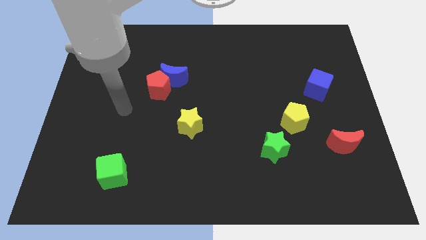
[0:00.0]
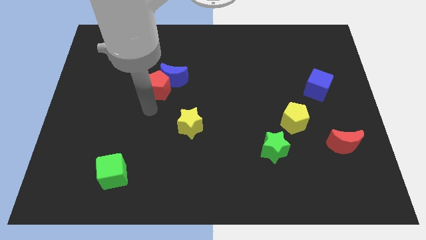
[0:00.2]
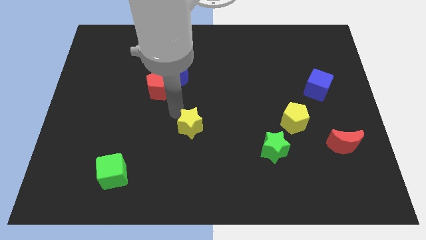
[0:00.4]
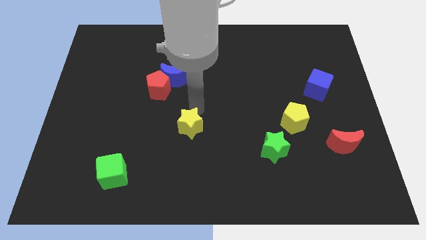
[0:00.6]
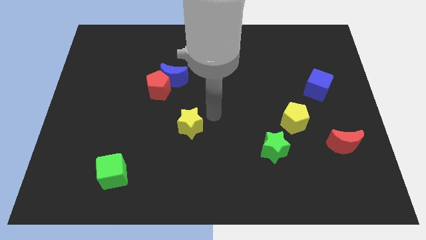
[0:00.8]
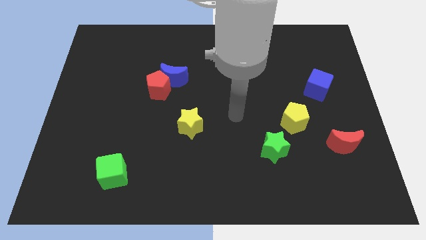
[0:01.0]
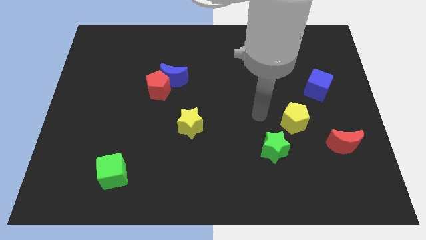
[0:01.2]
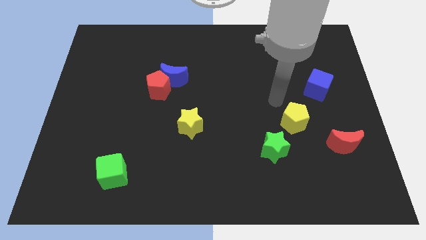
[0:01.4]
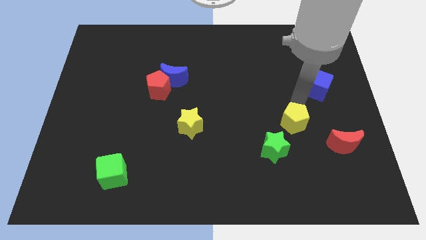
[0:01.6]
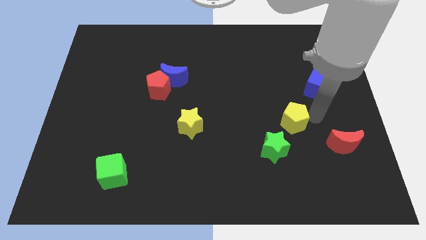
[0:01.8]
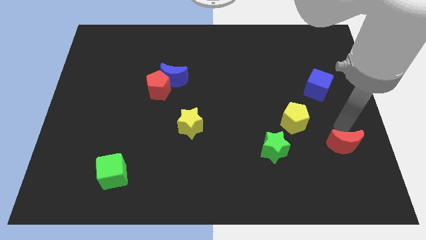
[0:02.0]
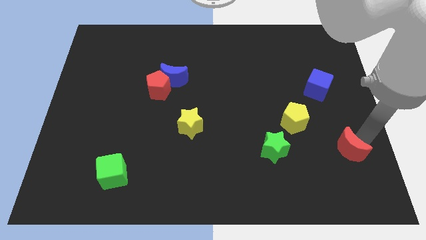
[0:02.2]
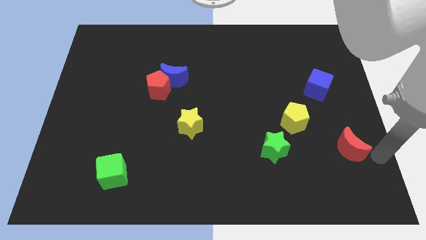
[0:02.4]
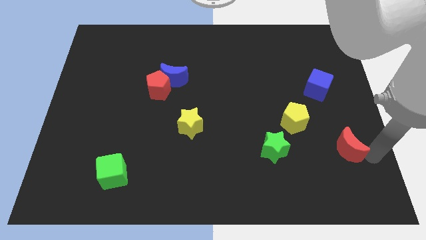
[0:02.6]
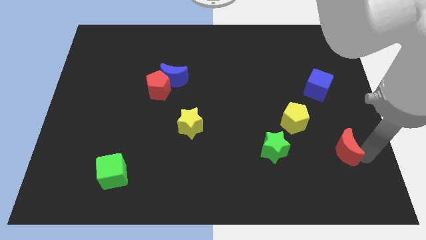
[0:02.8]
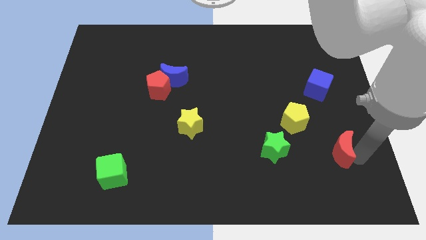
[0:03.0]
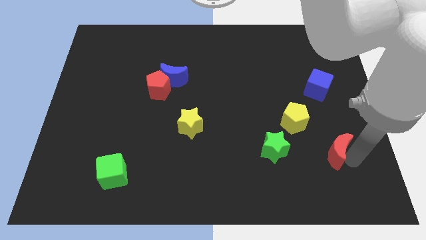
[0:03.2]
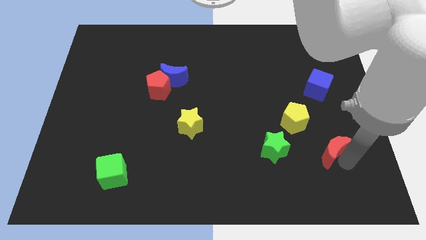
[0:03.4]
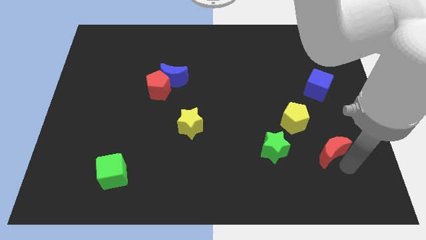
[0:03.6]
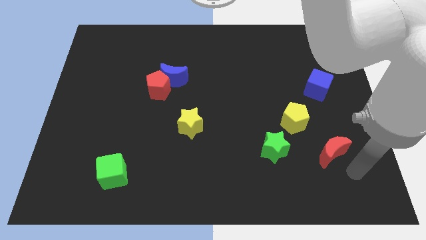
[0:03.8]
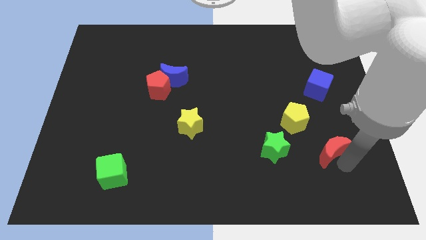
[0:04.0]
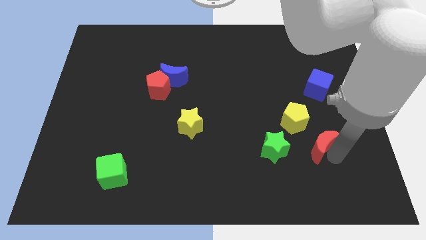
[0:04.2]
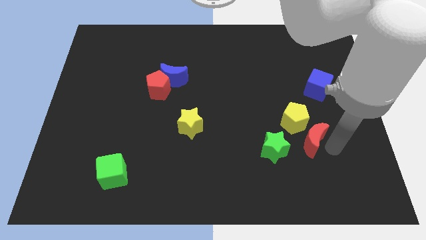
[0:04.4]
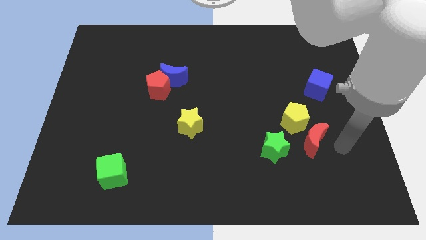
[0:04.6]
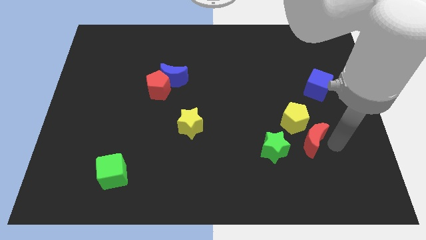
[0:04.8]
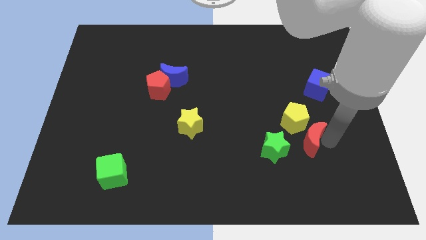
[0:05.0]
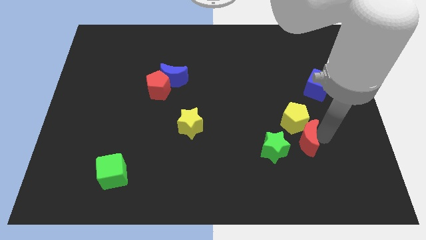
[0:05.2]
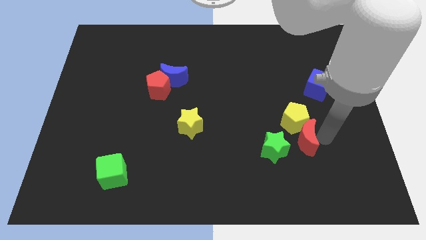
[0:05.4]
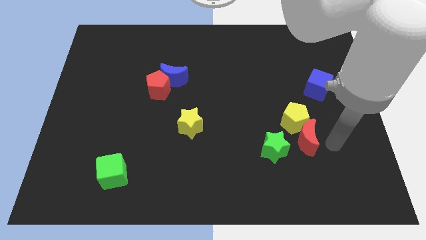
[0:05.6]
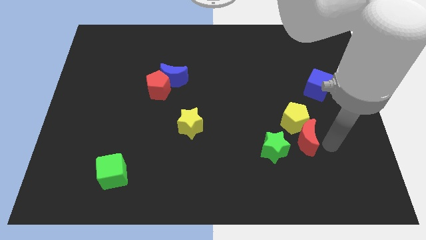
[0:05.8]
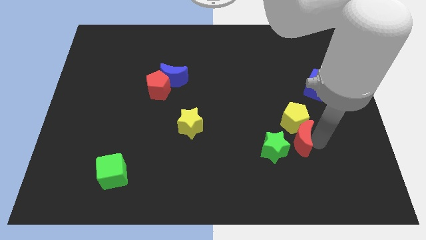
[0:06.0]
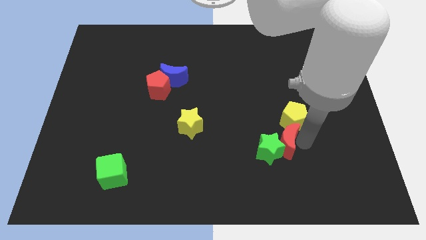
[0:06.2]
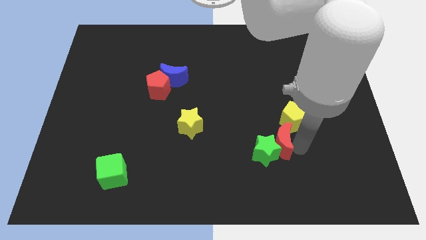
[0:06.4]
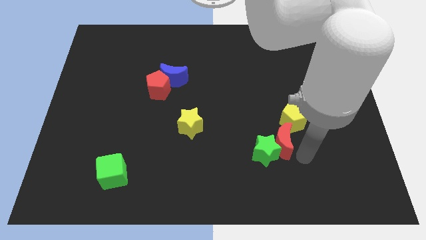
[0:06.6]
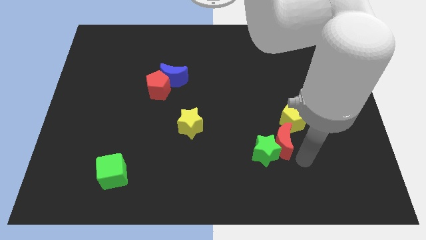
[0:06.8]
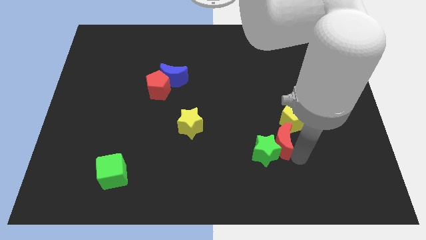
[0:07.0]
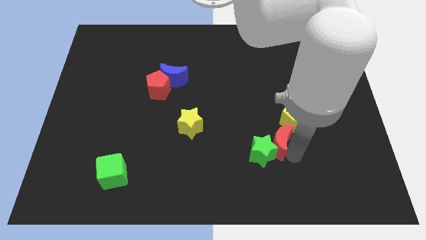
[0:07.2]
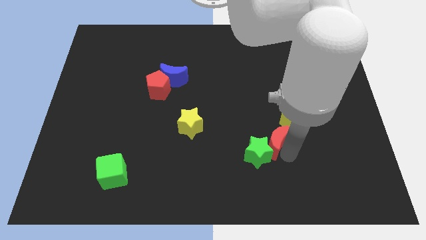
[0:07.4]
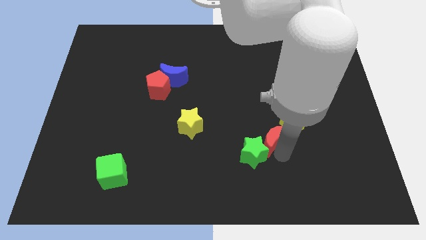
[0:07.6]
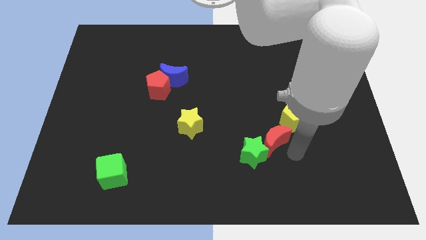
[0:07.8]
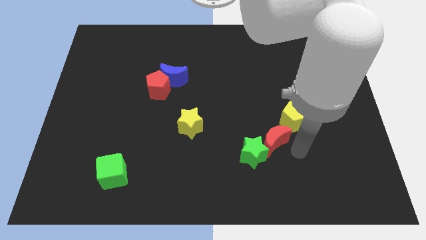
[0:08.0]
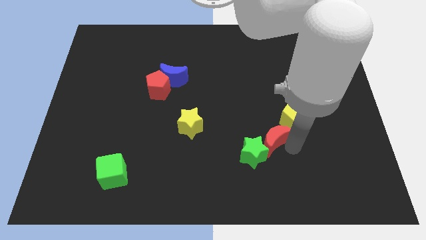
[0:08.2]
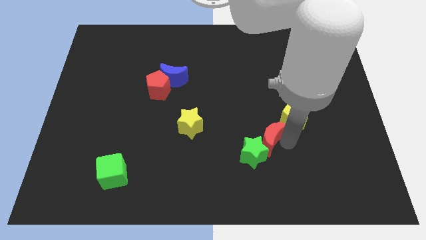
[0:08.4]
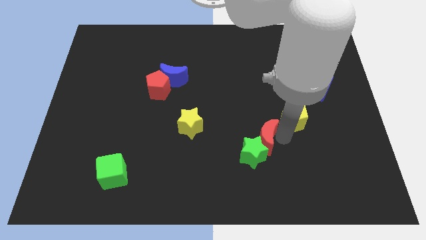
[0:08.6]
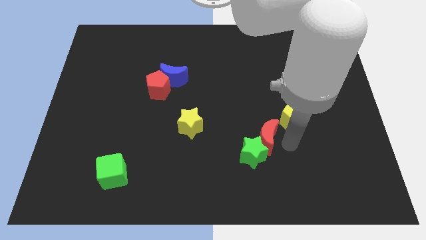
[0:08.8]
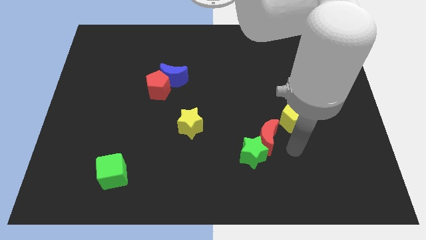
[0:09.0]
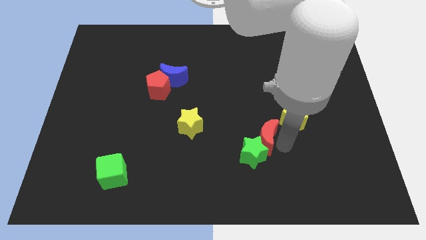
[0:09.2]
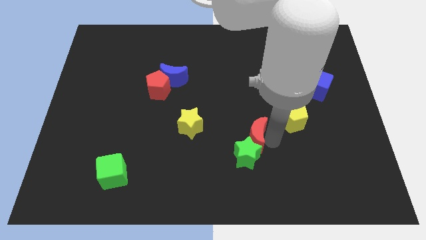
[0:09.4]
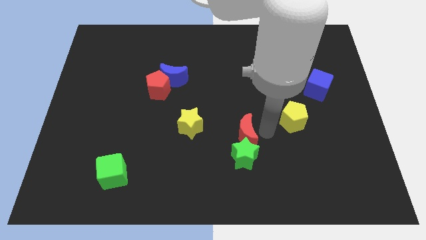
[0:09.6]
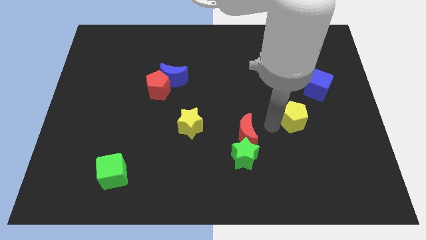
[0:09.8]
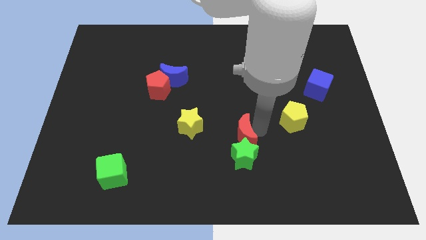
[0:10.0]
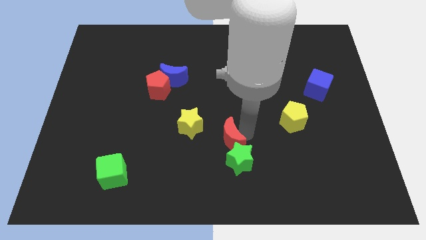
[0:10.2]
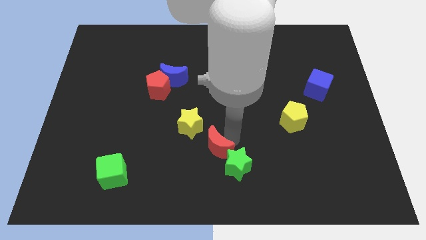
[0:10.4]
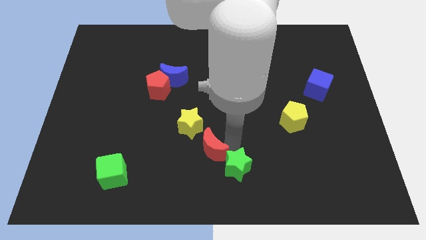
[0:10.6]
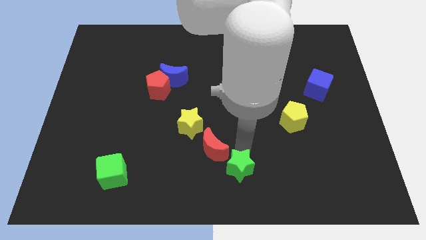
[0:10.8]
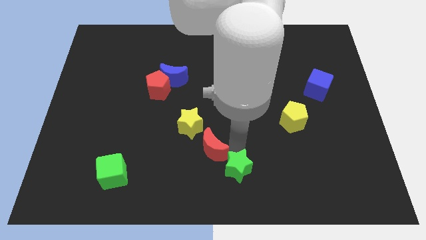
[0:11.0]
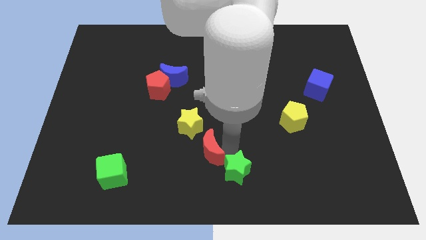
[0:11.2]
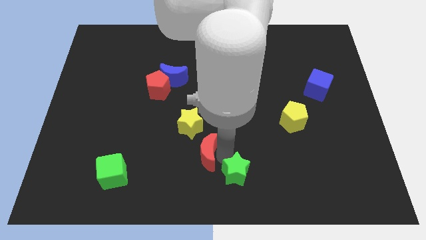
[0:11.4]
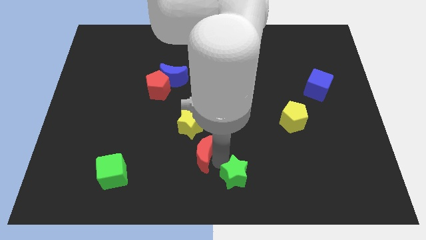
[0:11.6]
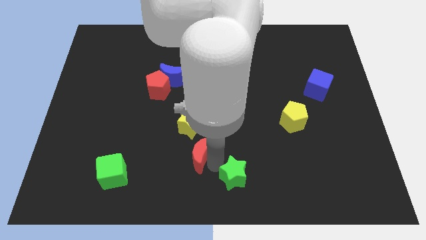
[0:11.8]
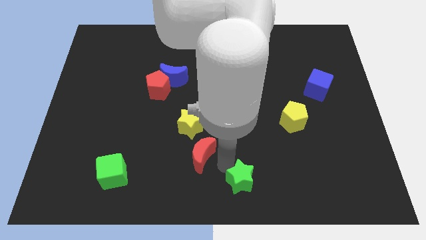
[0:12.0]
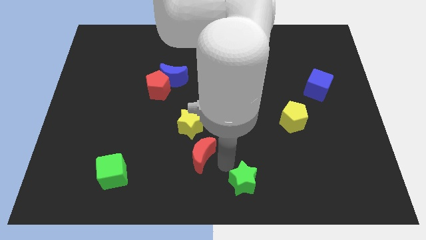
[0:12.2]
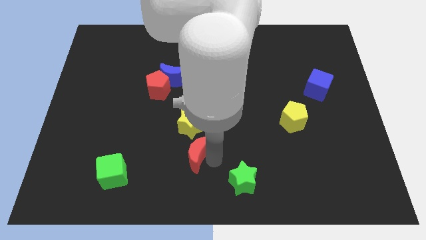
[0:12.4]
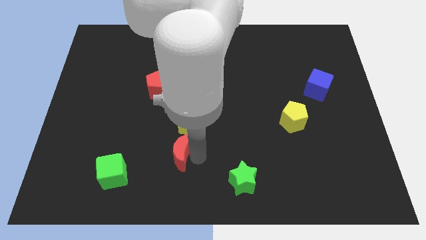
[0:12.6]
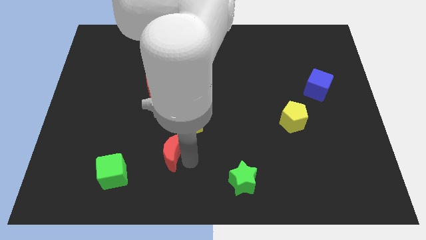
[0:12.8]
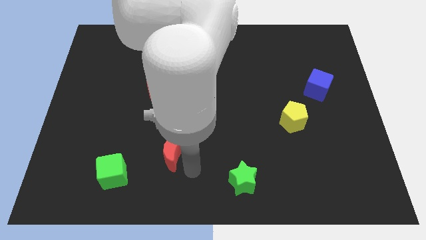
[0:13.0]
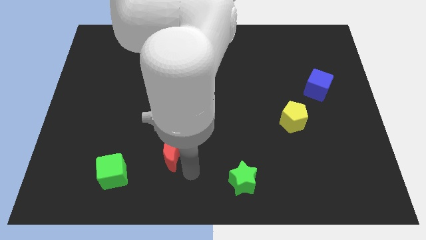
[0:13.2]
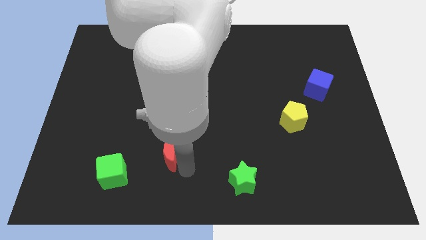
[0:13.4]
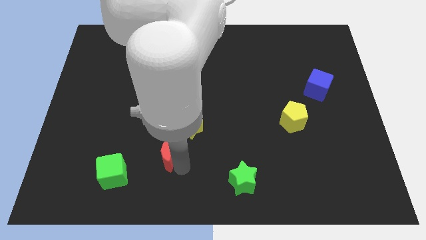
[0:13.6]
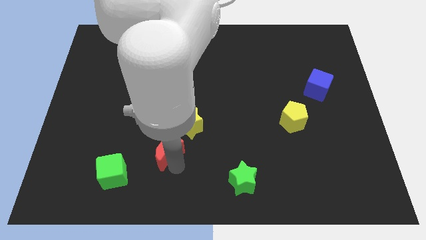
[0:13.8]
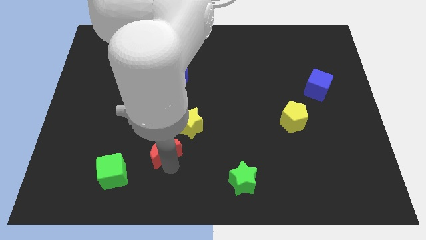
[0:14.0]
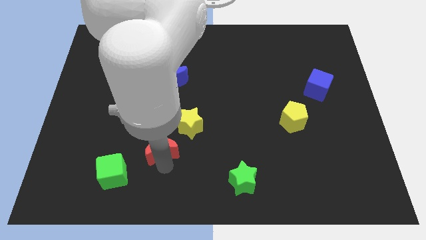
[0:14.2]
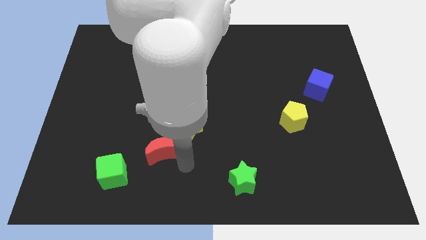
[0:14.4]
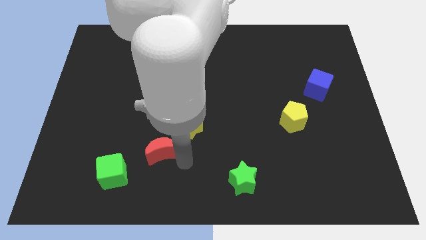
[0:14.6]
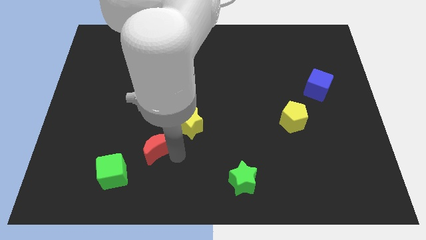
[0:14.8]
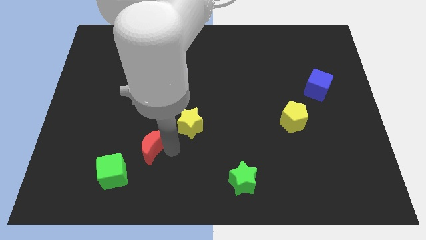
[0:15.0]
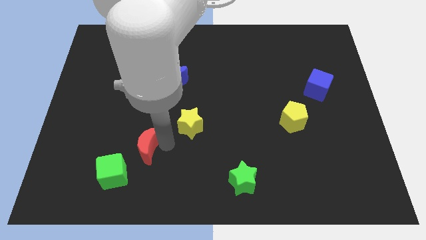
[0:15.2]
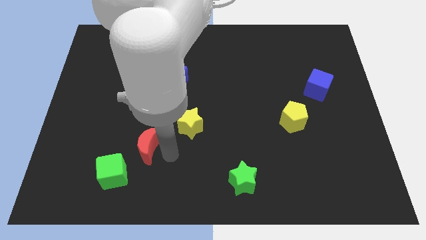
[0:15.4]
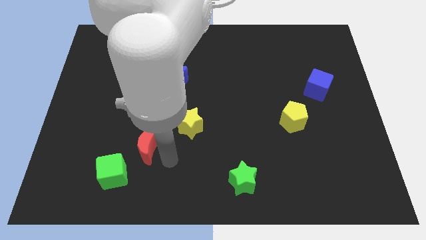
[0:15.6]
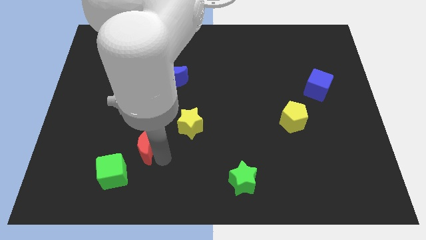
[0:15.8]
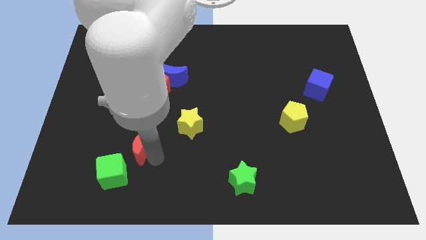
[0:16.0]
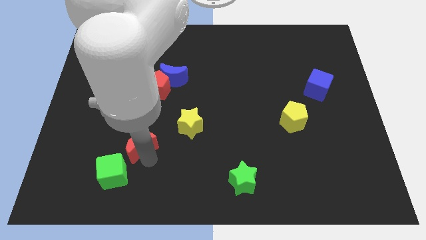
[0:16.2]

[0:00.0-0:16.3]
push the red moon to the top side of the green cube
